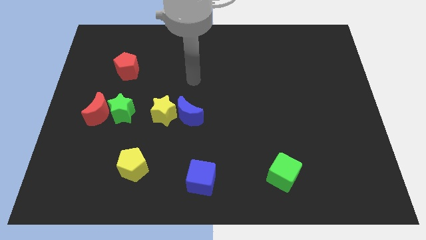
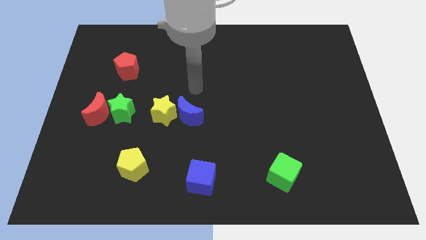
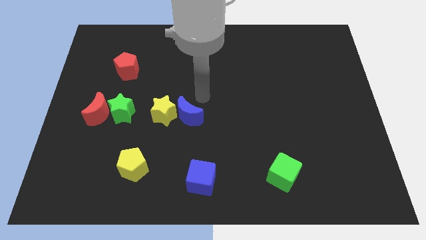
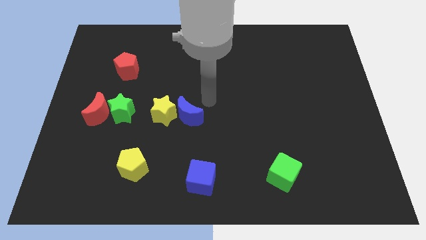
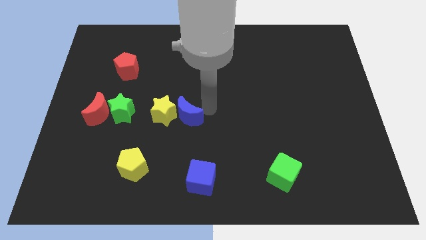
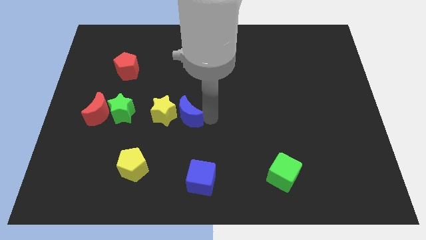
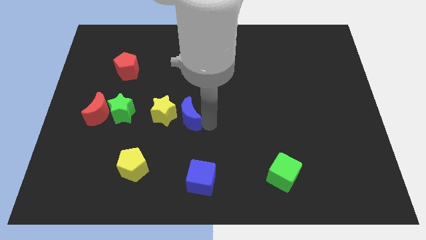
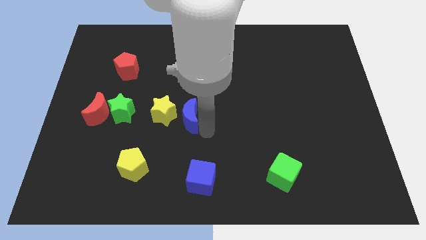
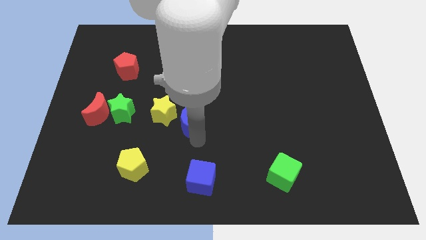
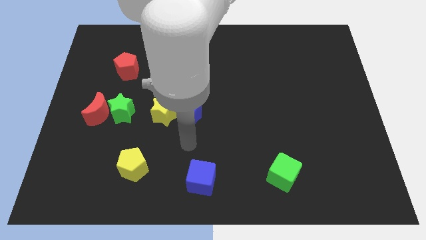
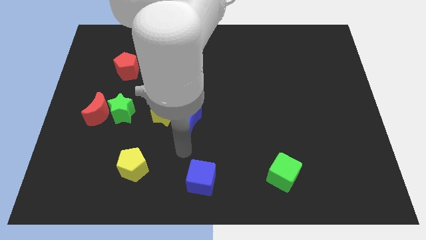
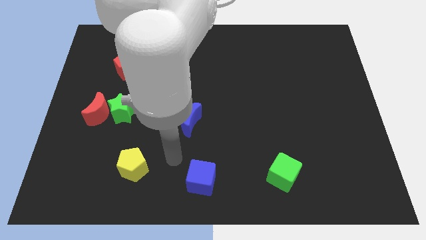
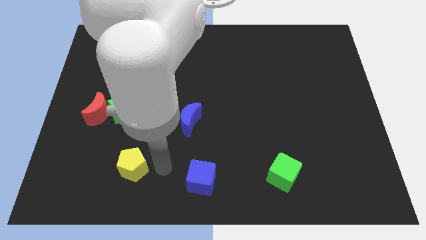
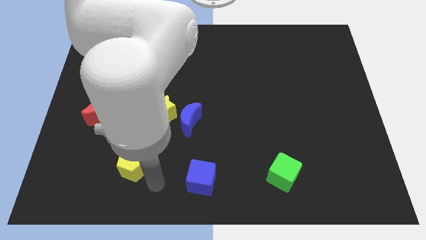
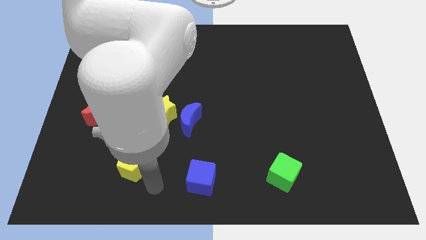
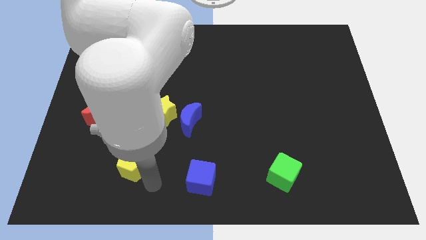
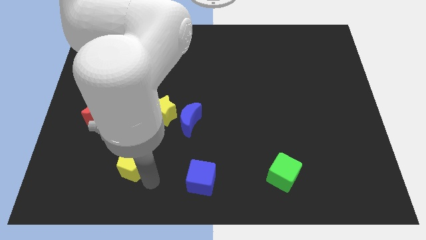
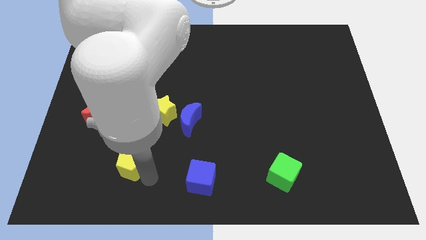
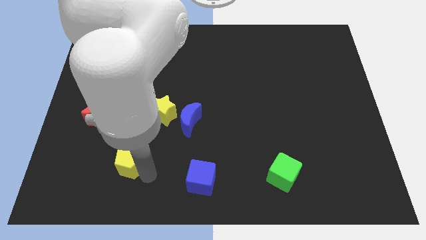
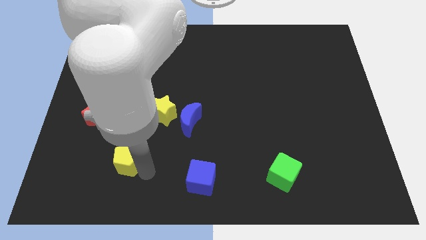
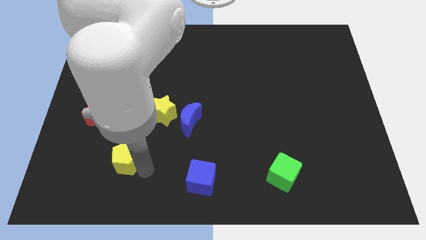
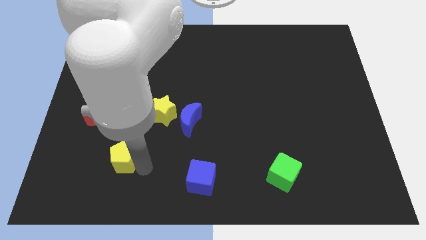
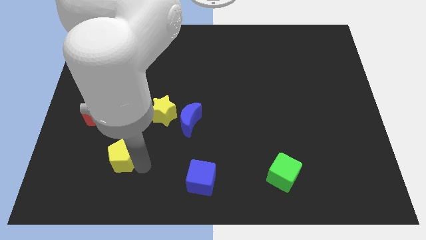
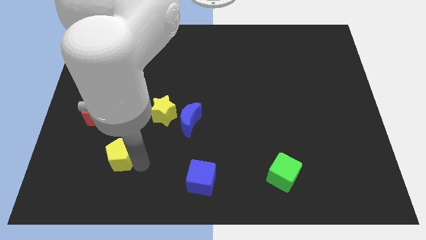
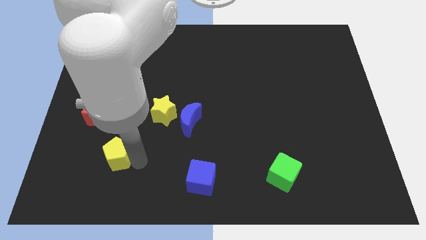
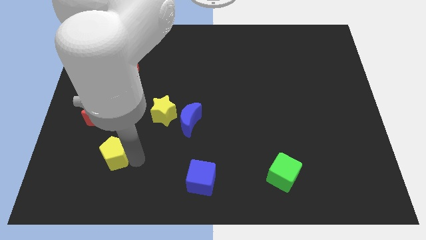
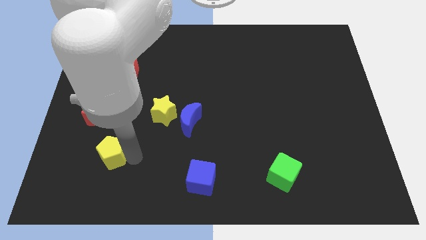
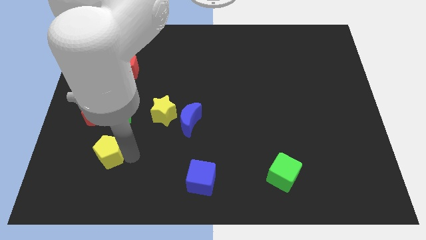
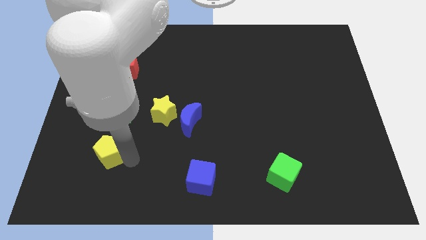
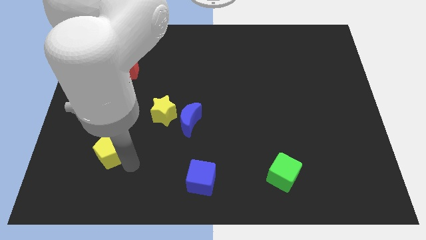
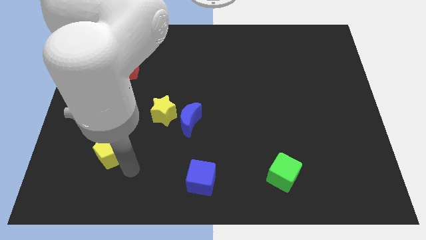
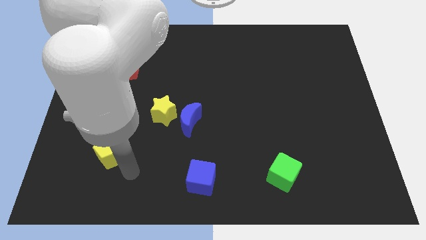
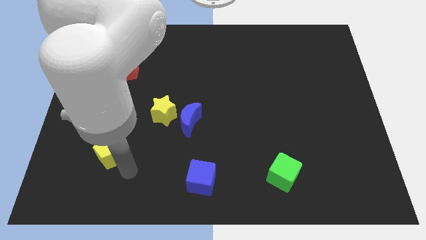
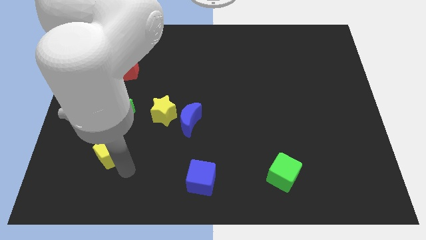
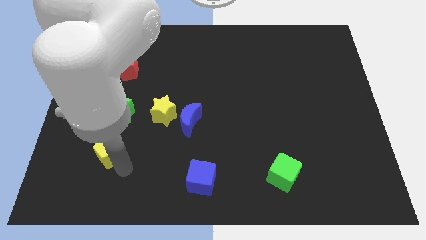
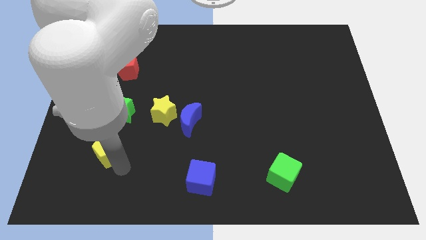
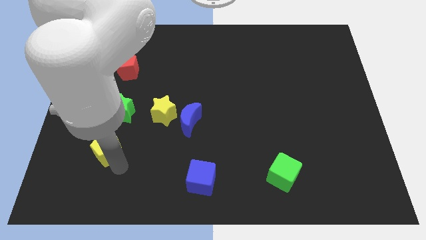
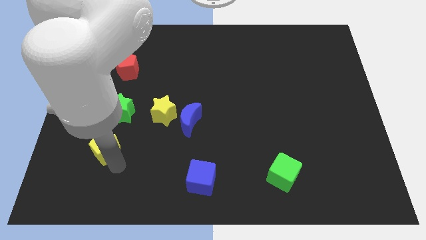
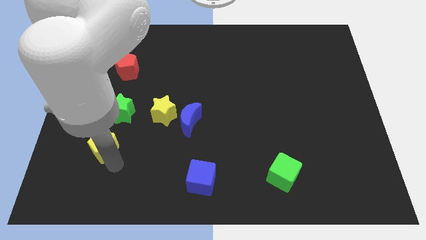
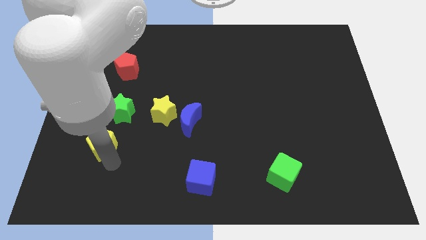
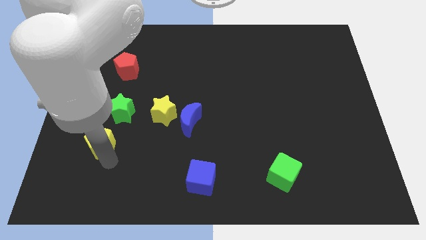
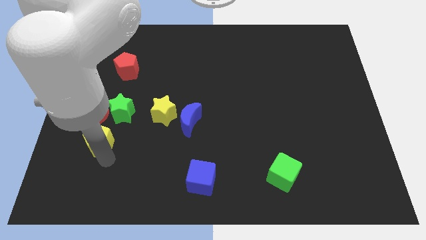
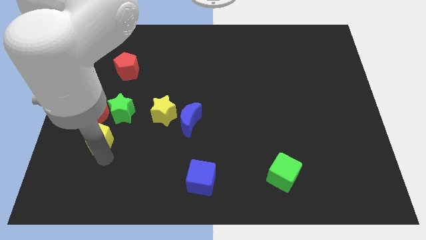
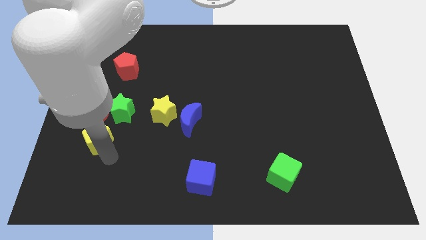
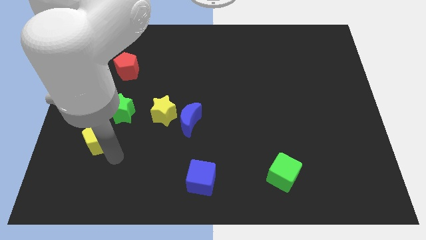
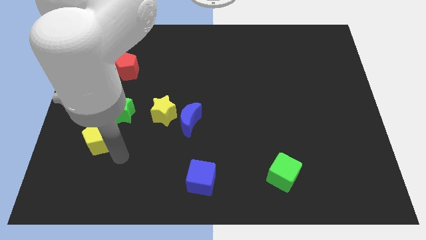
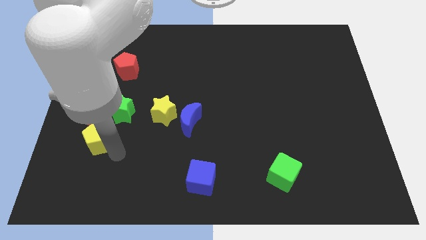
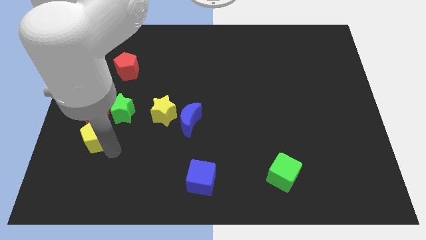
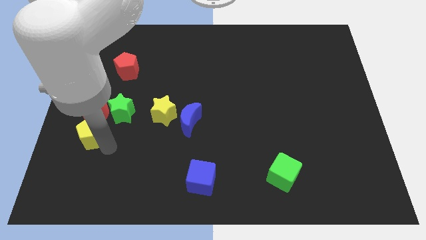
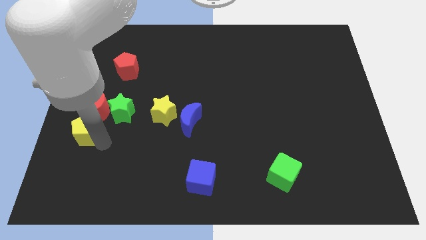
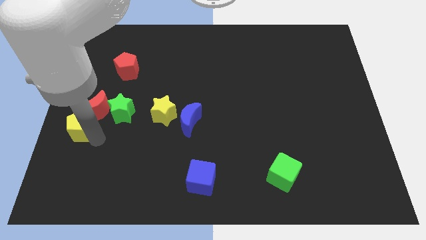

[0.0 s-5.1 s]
move the yellow pentagon to the left side

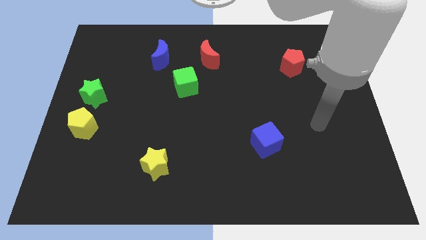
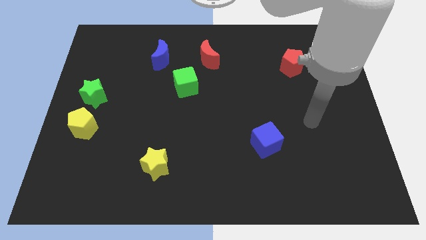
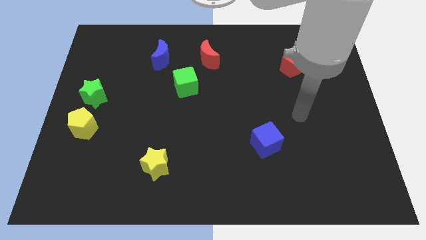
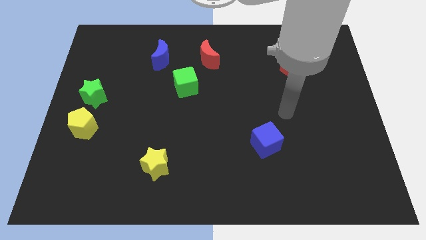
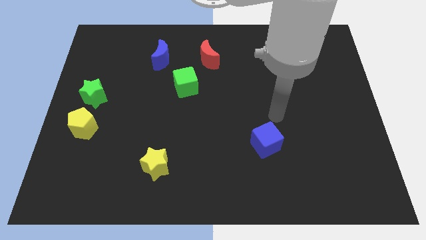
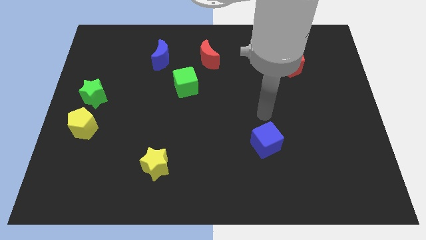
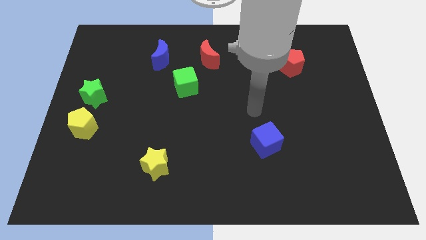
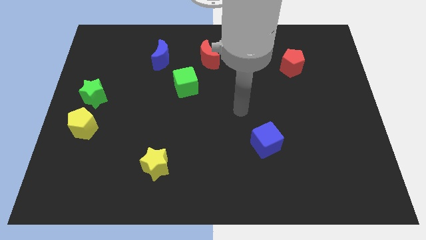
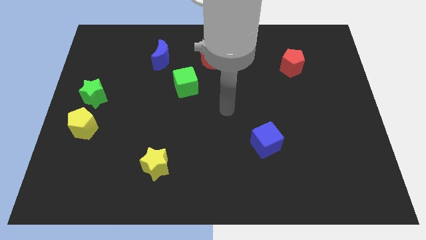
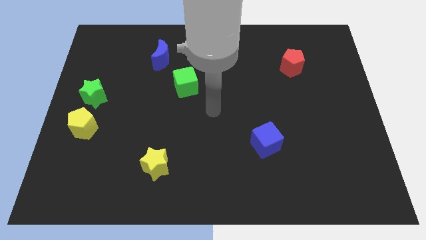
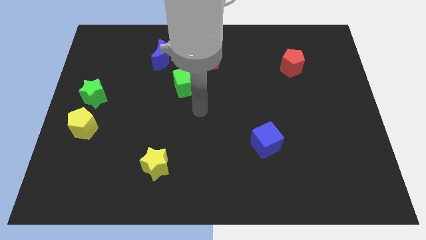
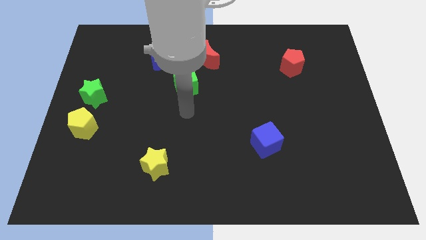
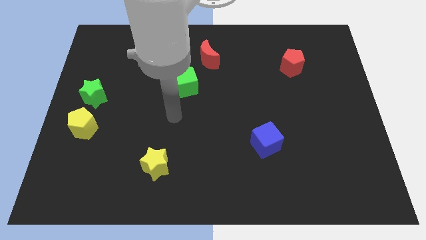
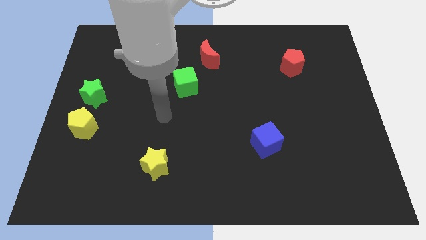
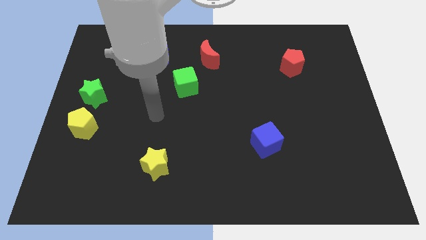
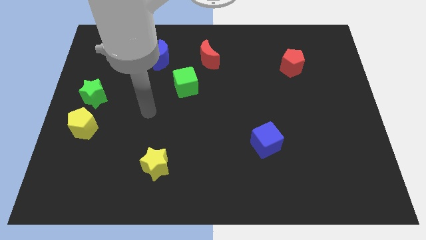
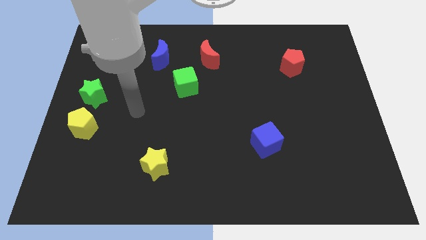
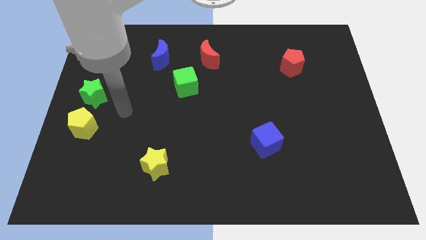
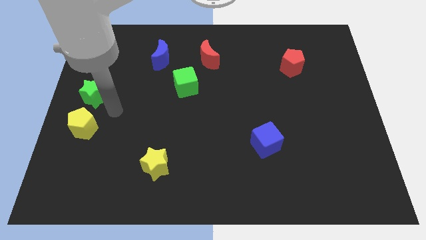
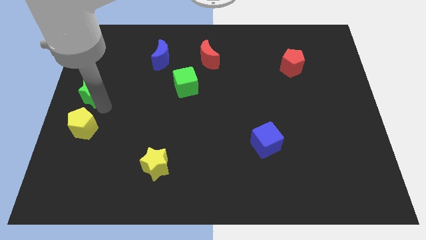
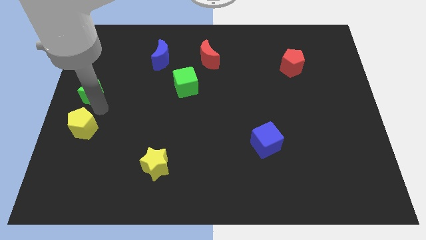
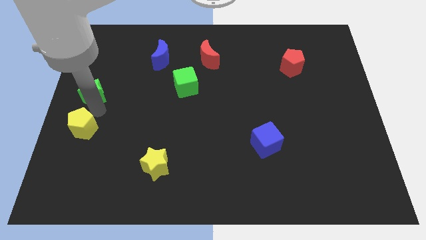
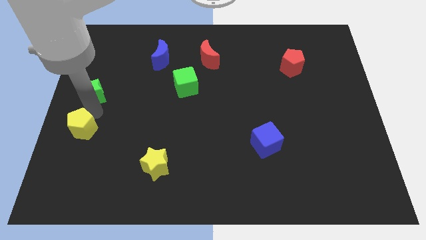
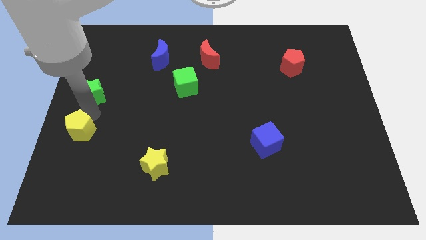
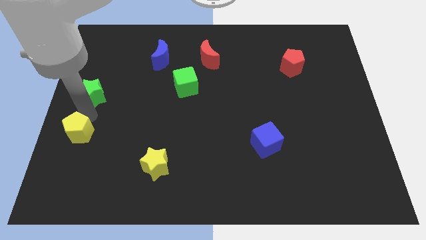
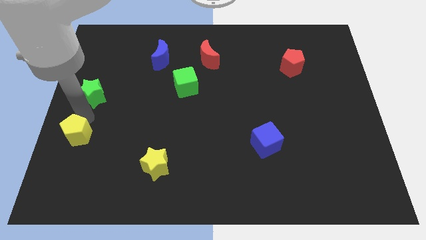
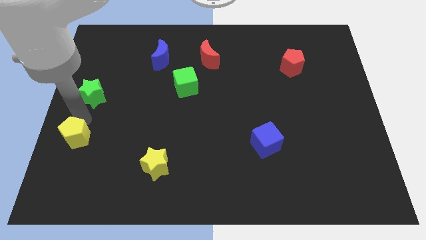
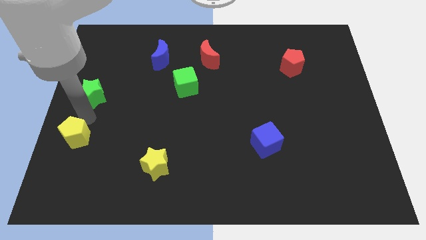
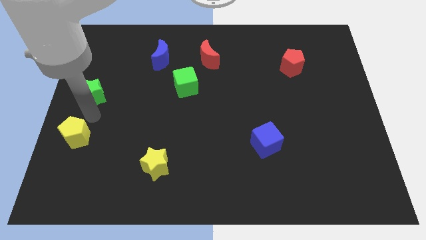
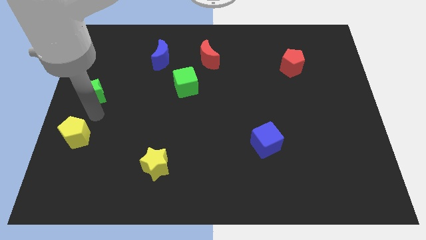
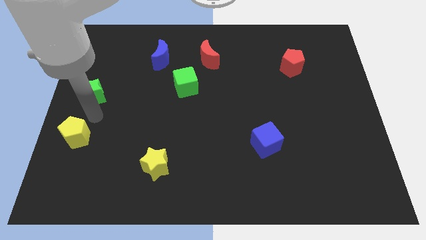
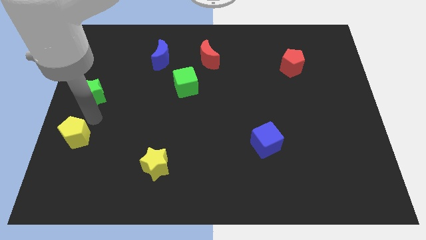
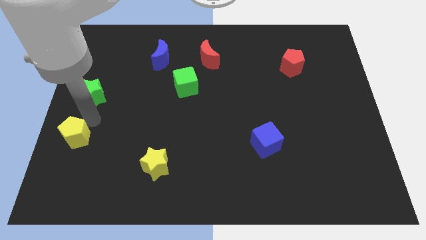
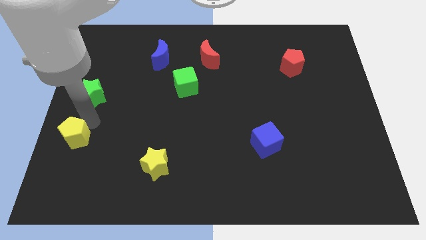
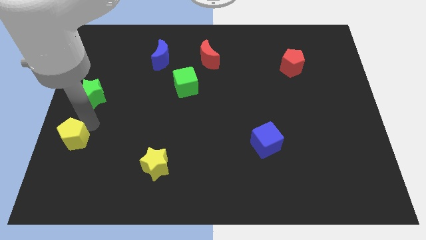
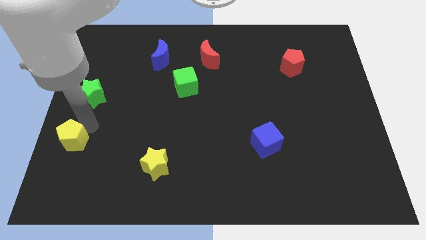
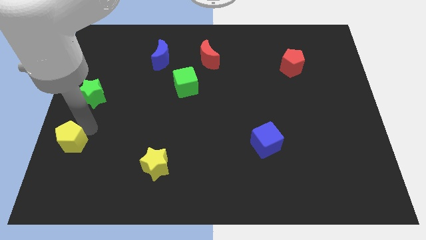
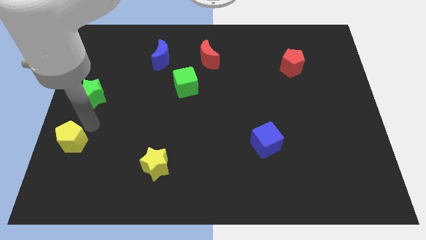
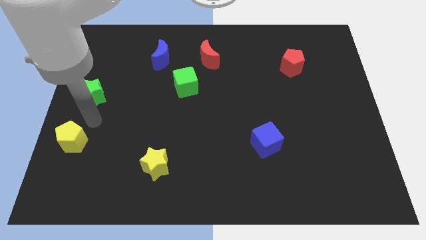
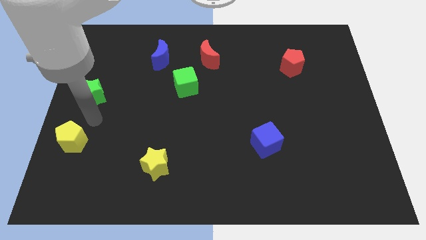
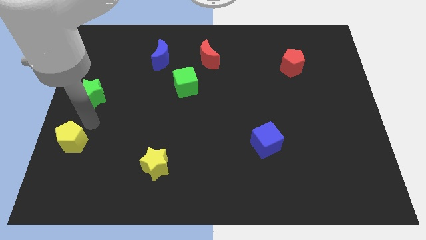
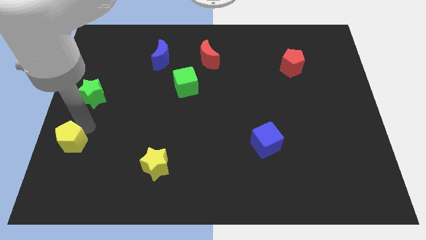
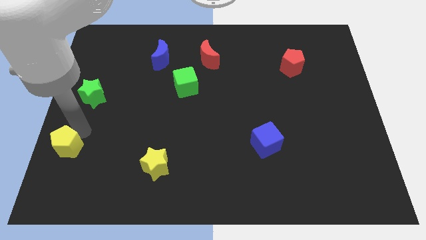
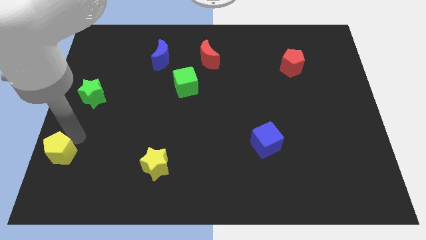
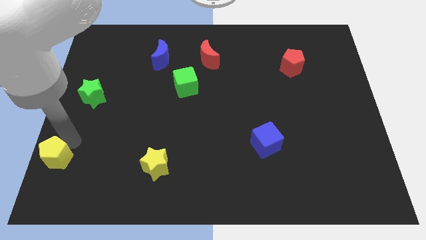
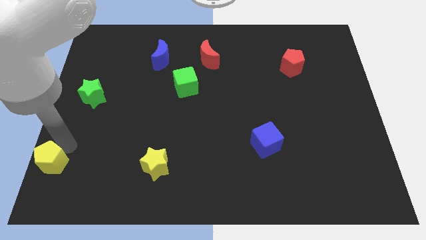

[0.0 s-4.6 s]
move the yellow pentagon to the bottom left
